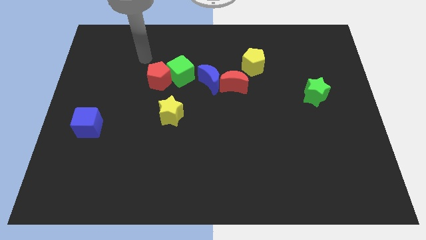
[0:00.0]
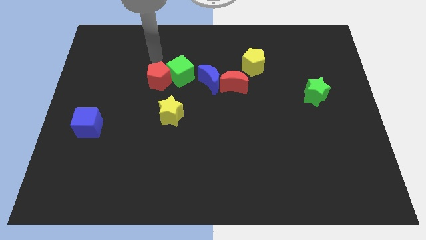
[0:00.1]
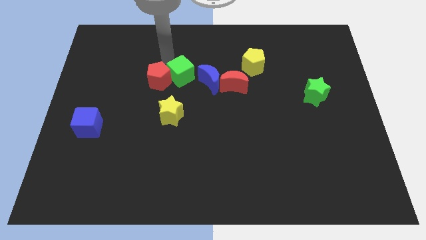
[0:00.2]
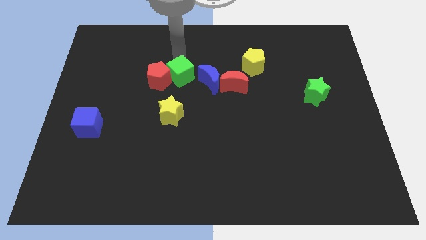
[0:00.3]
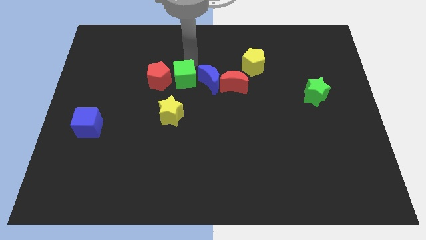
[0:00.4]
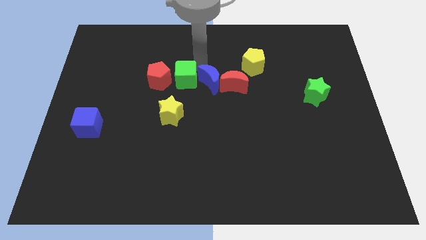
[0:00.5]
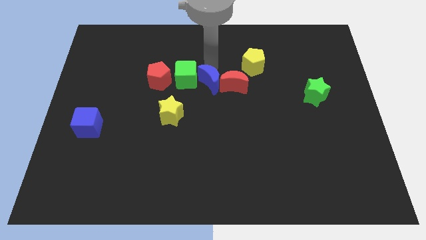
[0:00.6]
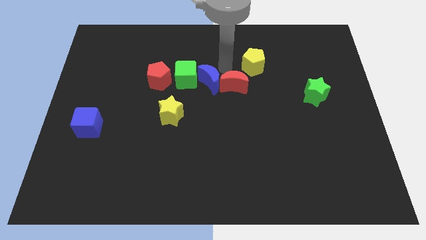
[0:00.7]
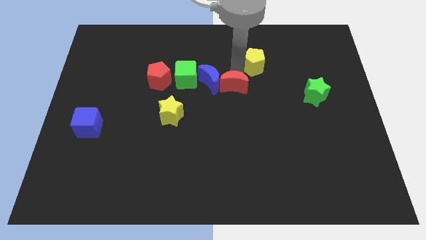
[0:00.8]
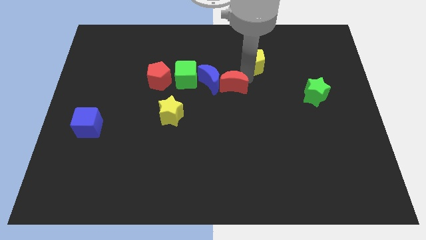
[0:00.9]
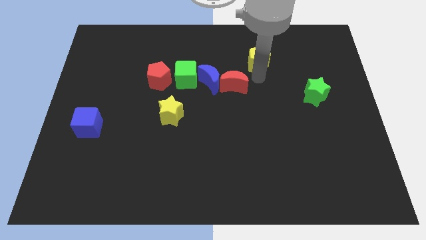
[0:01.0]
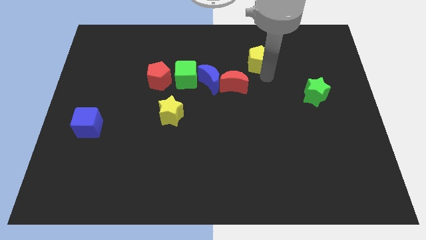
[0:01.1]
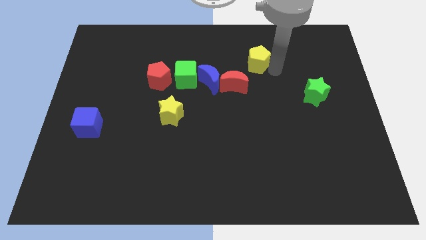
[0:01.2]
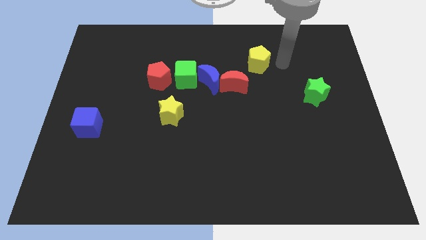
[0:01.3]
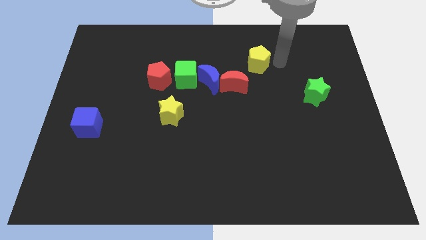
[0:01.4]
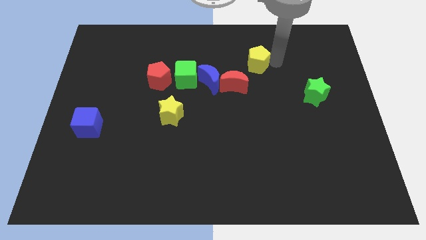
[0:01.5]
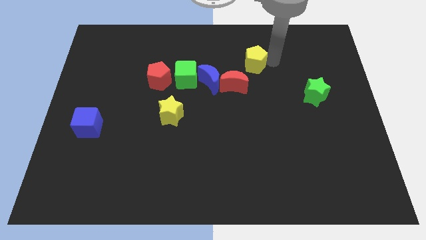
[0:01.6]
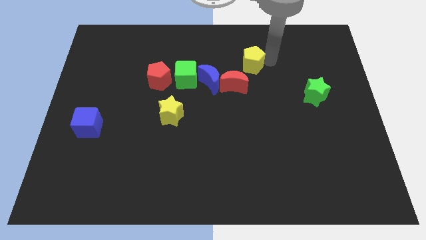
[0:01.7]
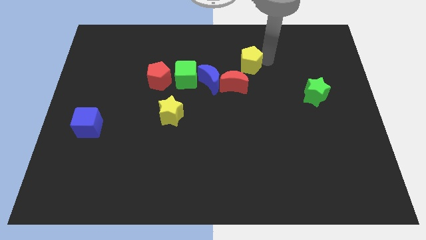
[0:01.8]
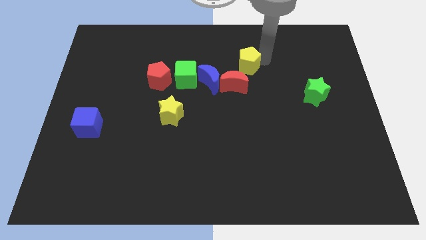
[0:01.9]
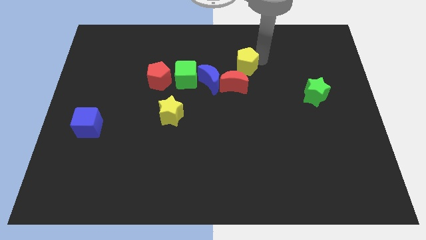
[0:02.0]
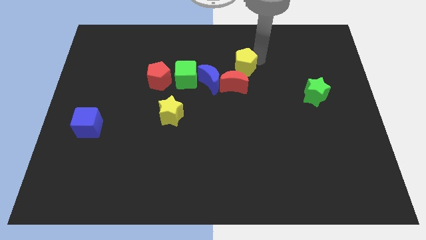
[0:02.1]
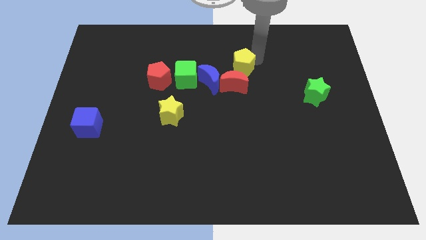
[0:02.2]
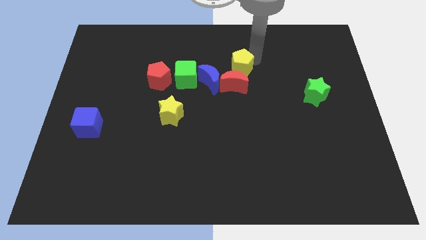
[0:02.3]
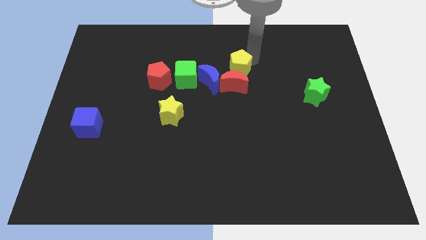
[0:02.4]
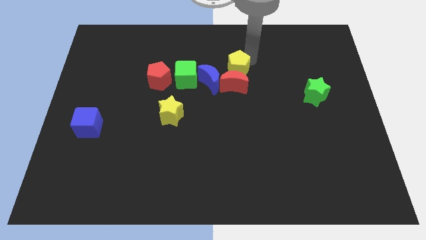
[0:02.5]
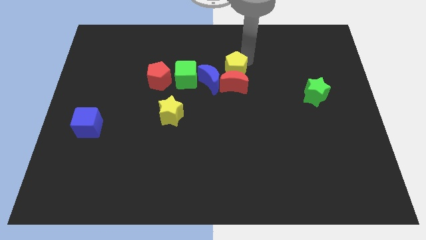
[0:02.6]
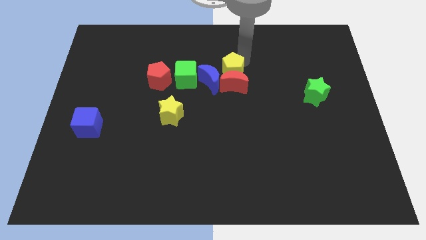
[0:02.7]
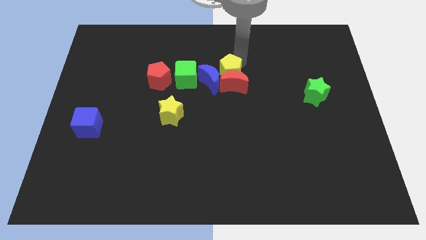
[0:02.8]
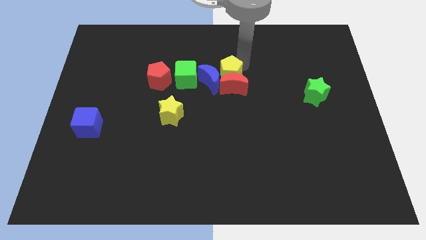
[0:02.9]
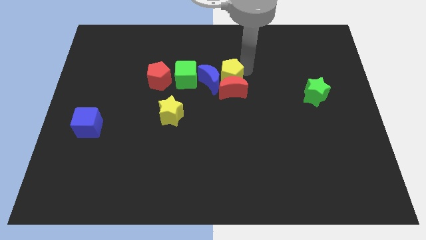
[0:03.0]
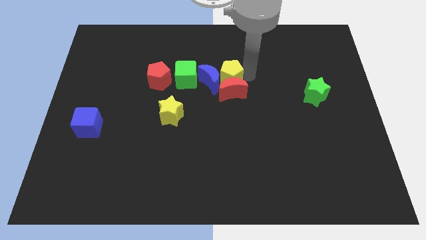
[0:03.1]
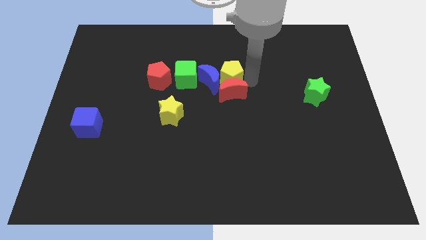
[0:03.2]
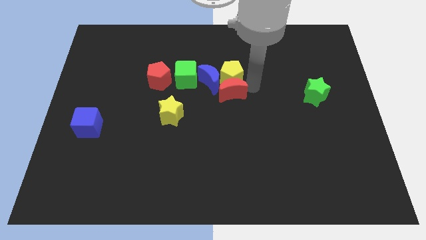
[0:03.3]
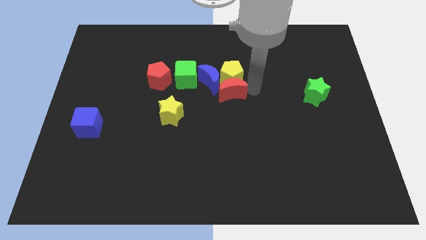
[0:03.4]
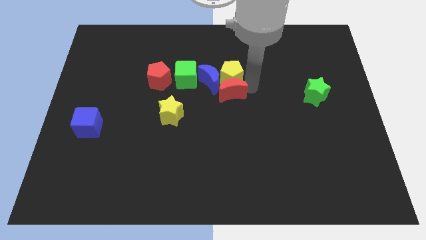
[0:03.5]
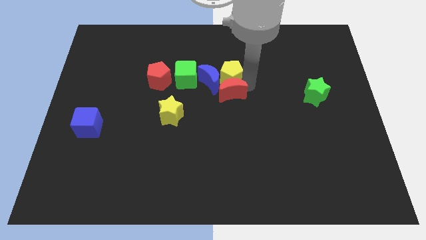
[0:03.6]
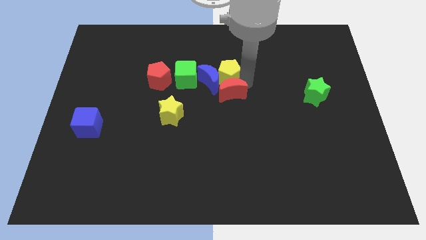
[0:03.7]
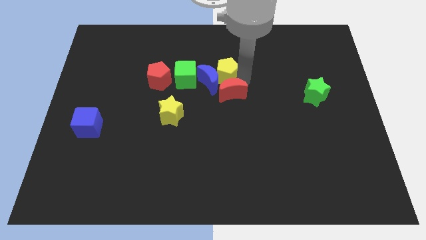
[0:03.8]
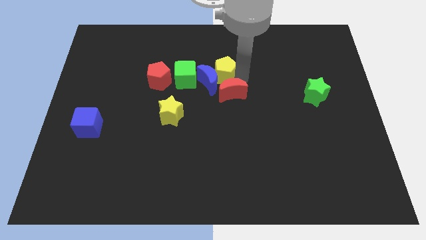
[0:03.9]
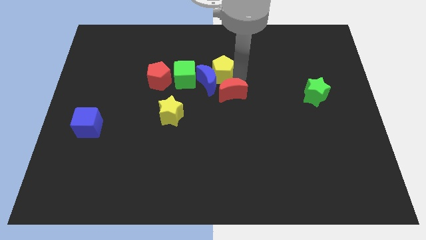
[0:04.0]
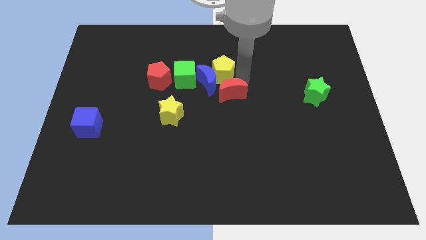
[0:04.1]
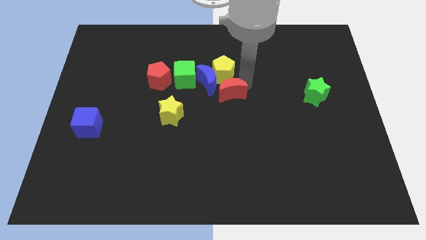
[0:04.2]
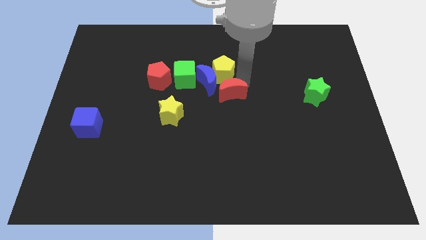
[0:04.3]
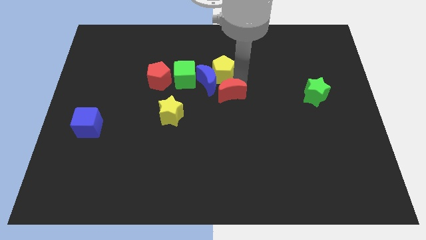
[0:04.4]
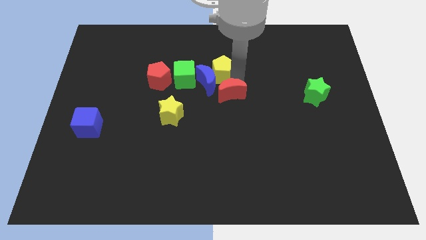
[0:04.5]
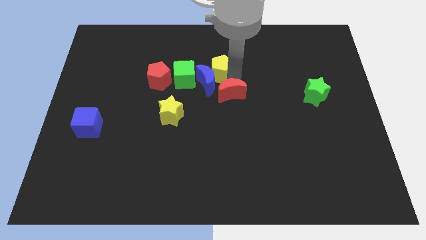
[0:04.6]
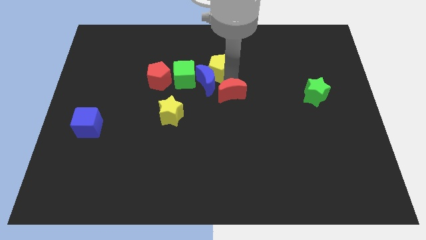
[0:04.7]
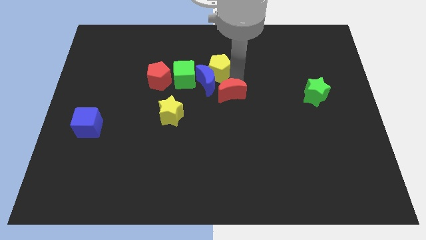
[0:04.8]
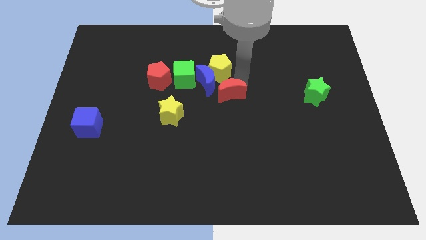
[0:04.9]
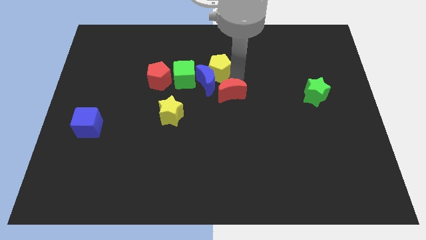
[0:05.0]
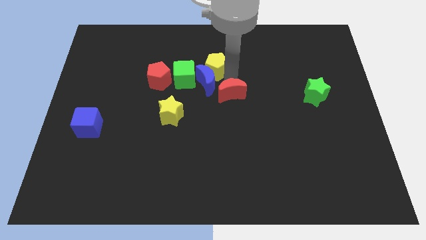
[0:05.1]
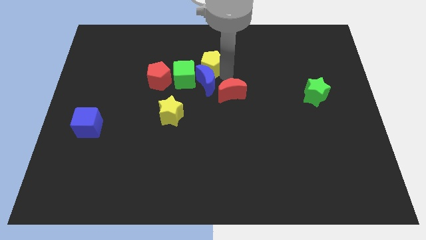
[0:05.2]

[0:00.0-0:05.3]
put the yellow pentagon to the top left side of the blue moon

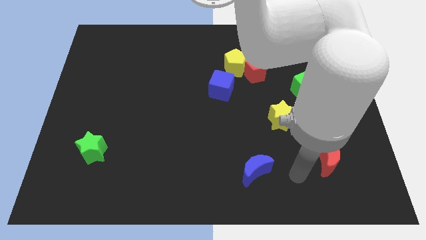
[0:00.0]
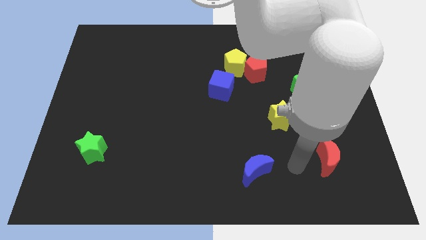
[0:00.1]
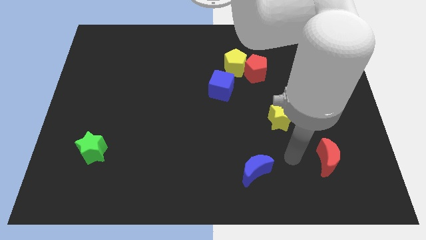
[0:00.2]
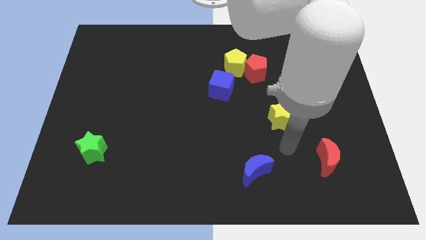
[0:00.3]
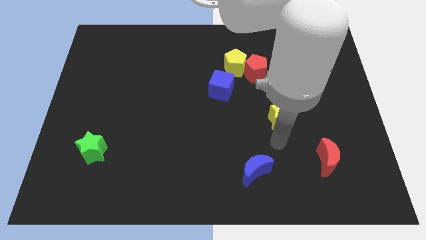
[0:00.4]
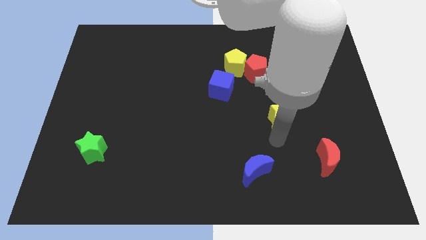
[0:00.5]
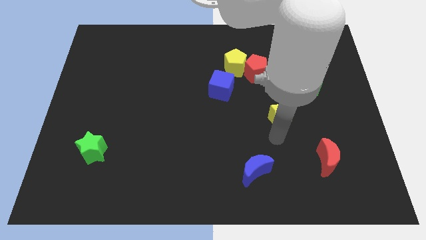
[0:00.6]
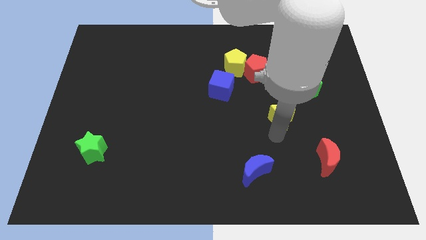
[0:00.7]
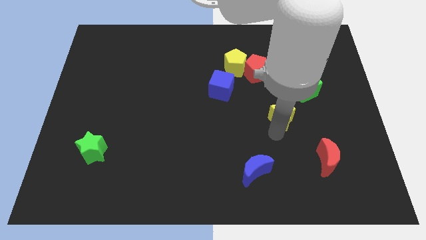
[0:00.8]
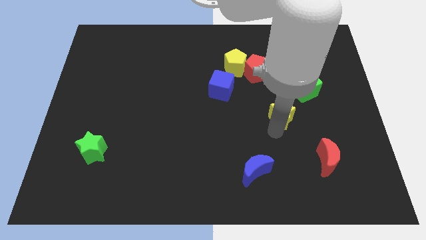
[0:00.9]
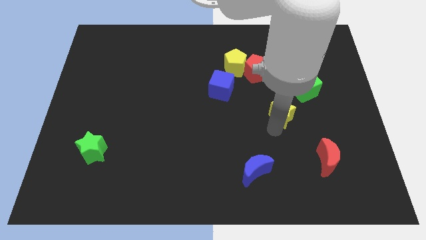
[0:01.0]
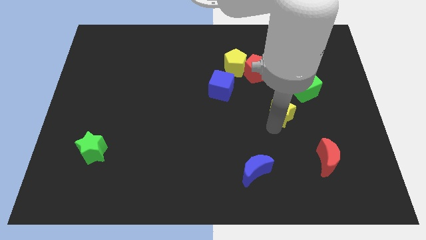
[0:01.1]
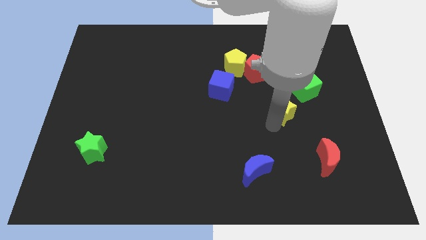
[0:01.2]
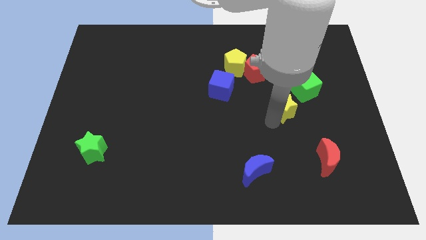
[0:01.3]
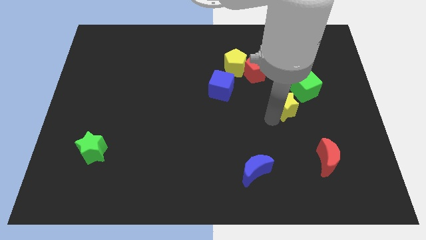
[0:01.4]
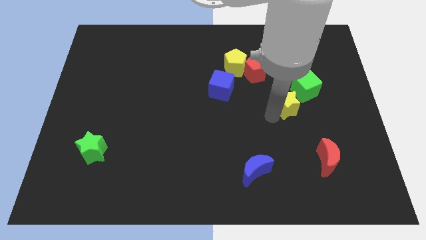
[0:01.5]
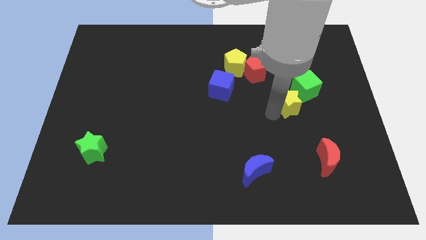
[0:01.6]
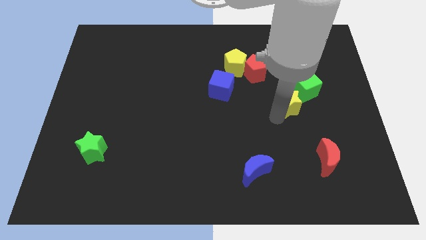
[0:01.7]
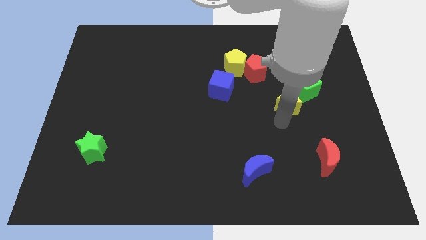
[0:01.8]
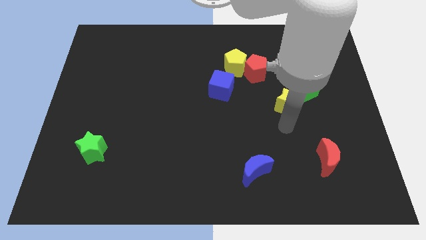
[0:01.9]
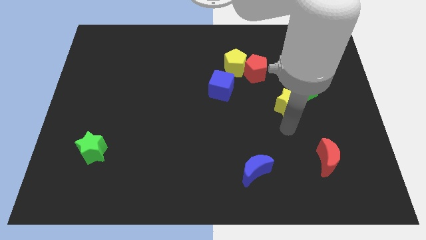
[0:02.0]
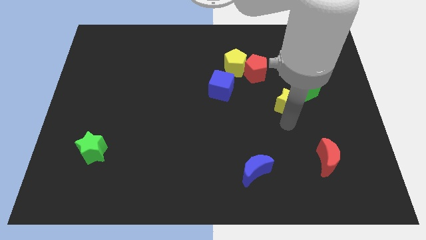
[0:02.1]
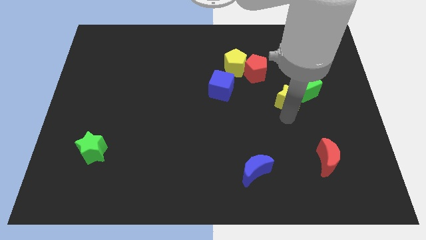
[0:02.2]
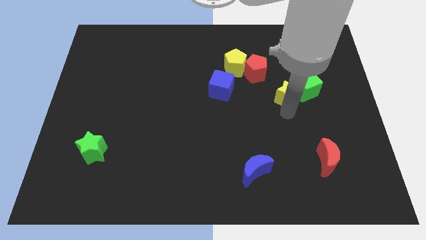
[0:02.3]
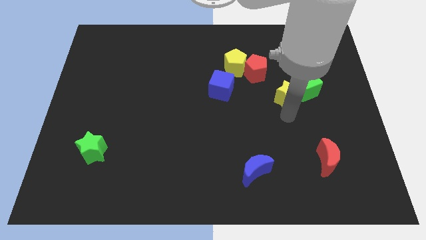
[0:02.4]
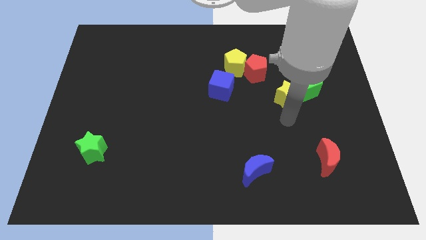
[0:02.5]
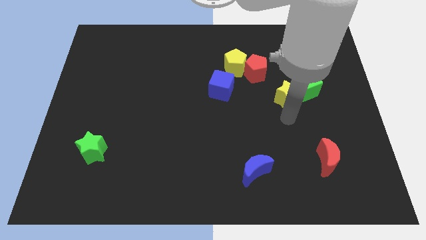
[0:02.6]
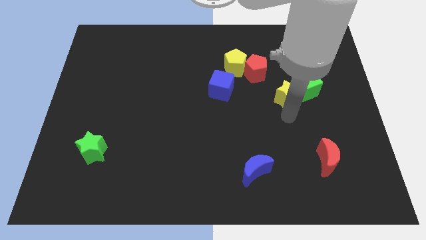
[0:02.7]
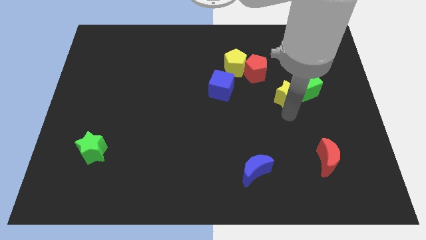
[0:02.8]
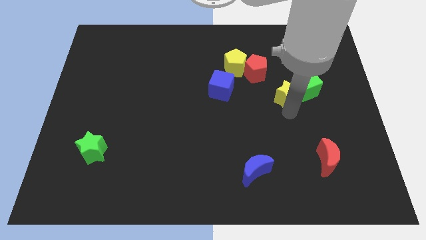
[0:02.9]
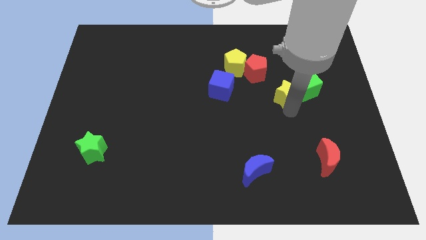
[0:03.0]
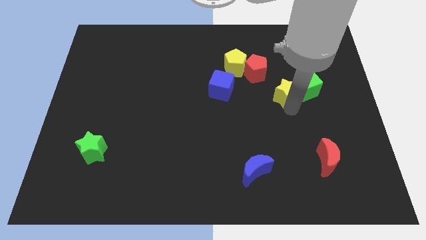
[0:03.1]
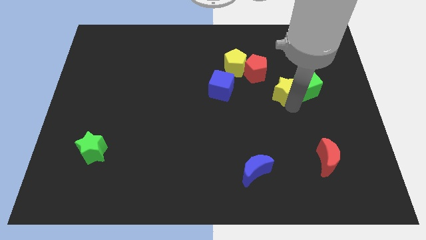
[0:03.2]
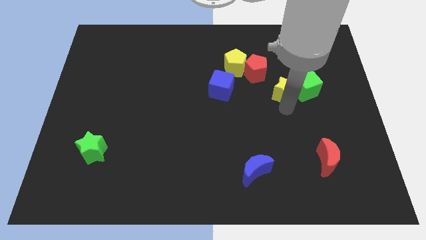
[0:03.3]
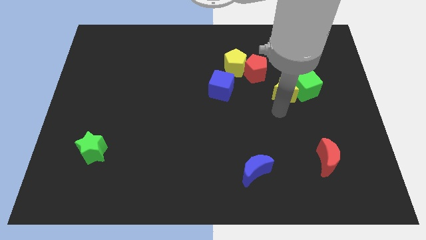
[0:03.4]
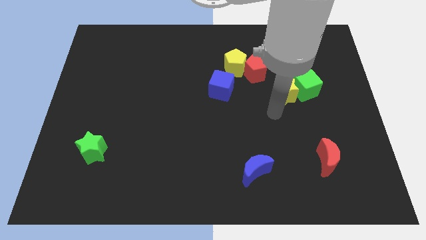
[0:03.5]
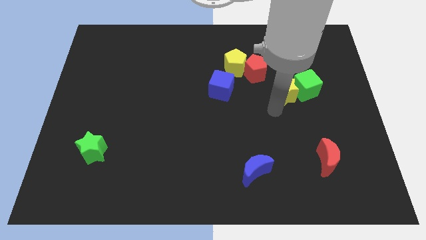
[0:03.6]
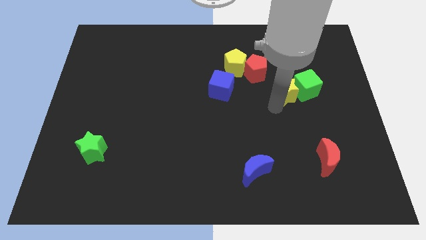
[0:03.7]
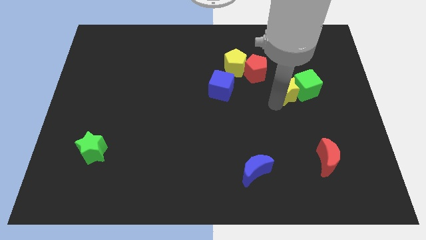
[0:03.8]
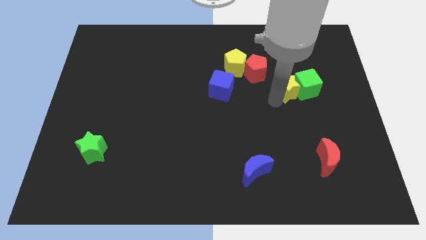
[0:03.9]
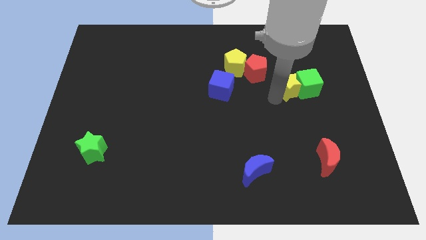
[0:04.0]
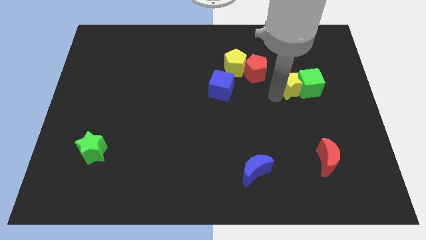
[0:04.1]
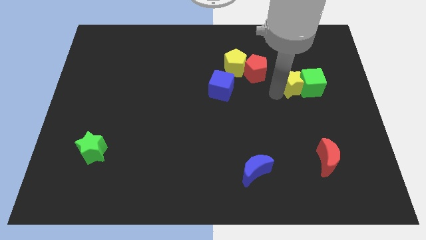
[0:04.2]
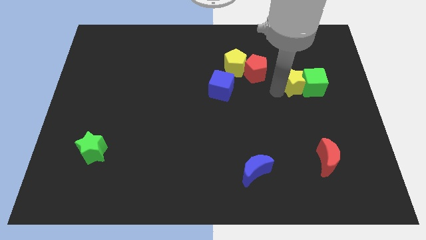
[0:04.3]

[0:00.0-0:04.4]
put the yellow star to the right side of the red pentagon
